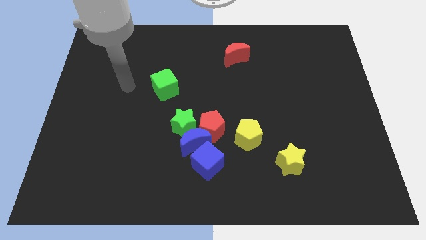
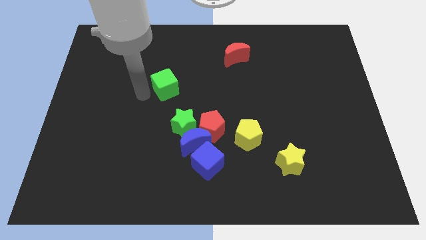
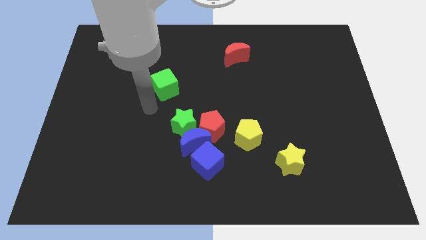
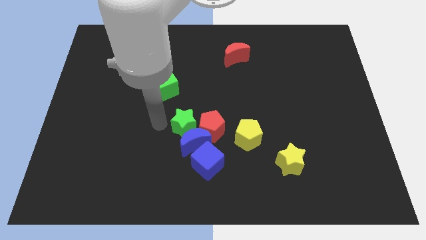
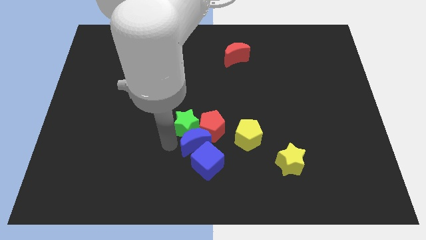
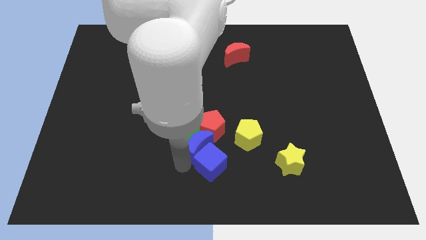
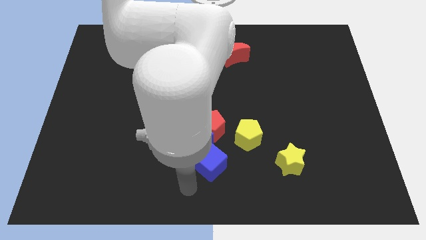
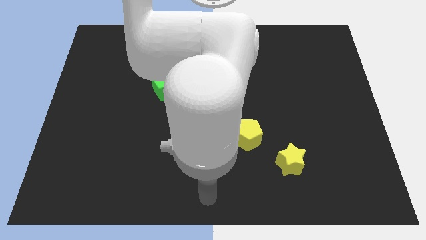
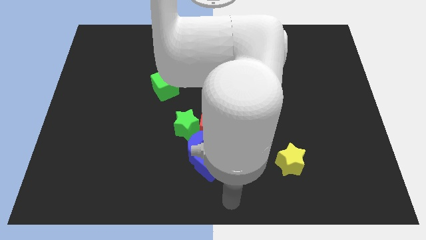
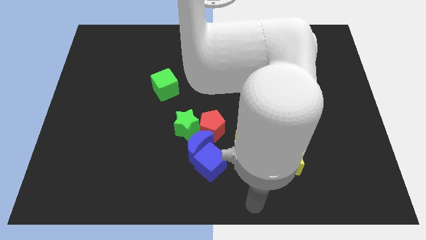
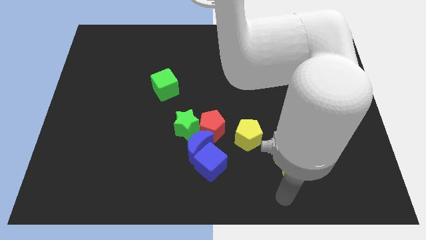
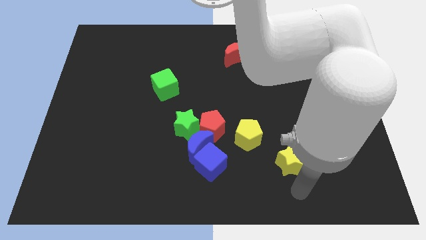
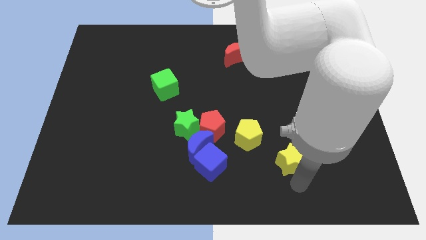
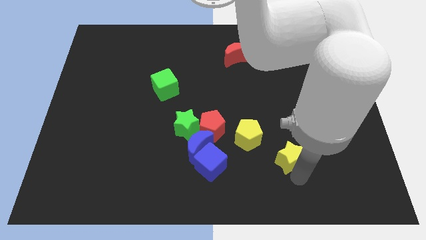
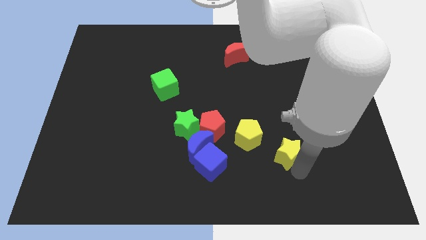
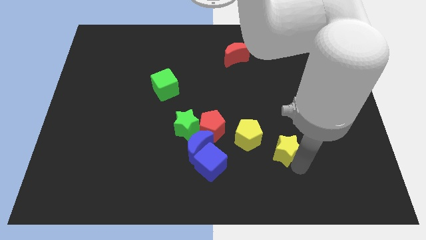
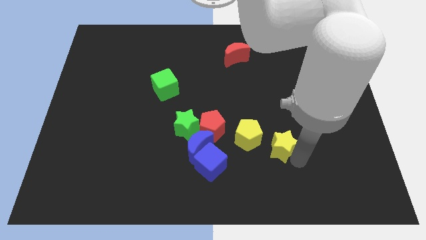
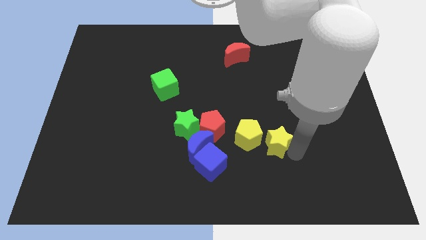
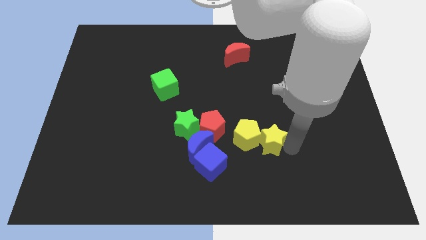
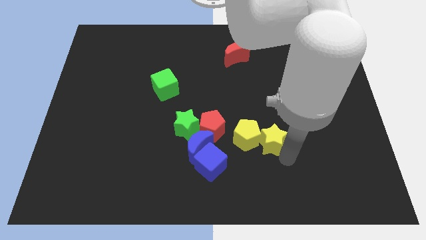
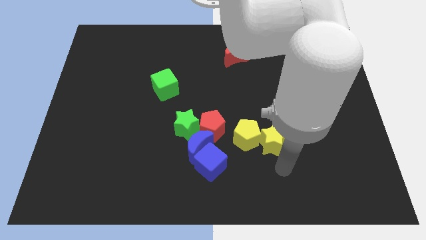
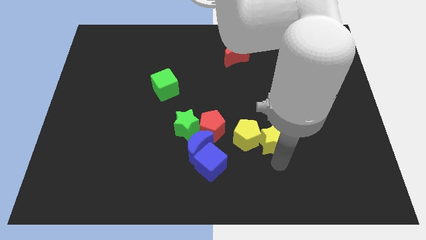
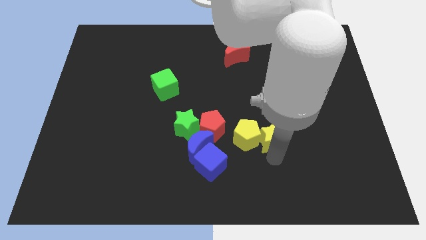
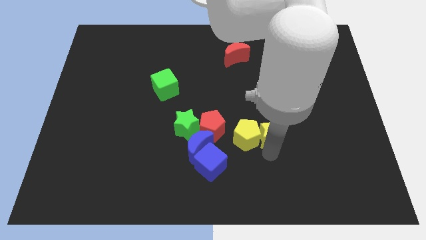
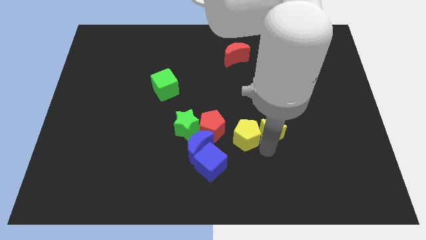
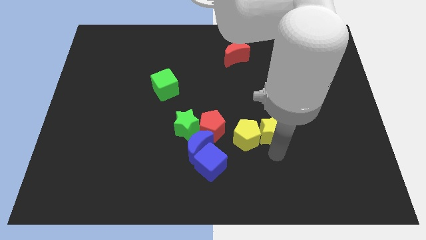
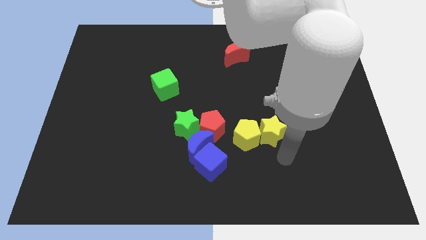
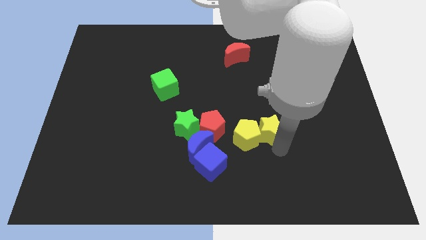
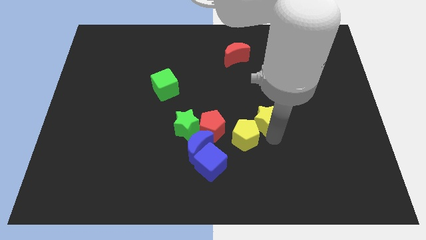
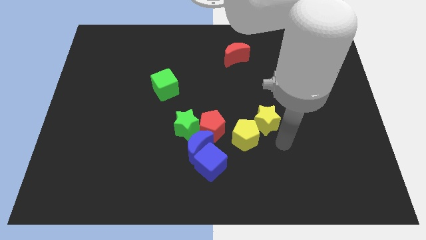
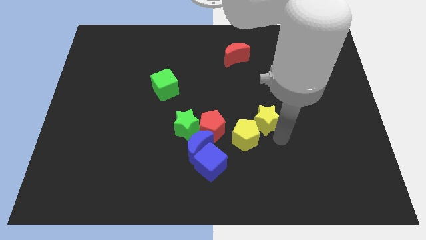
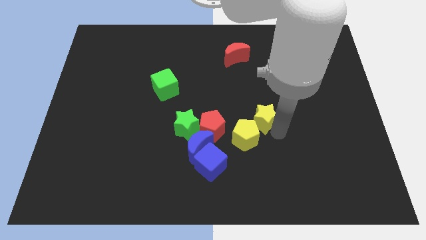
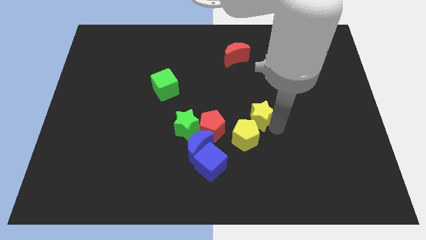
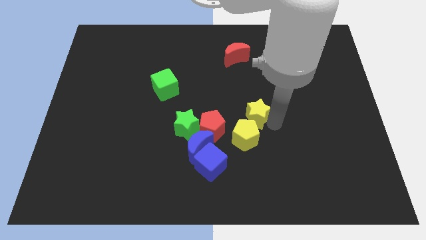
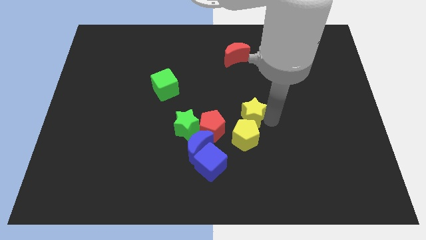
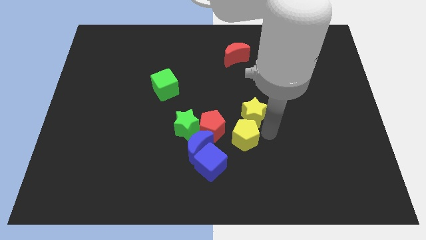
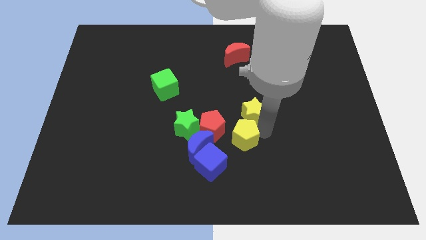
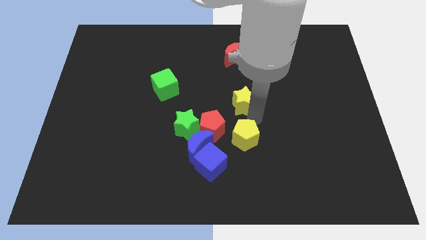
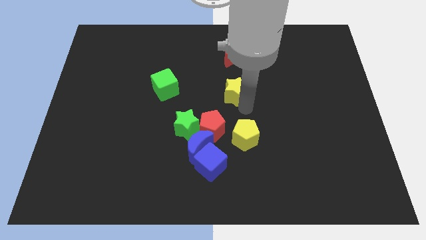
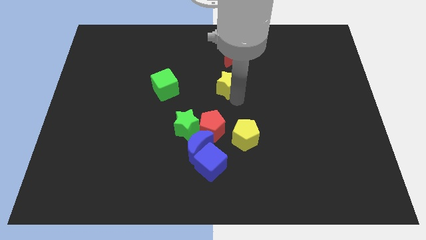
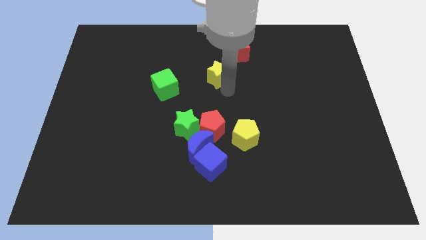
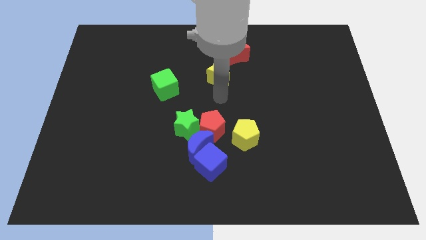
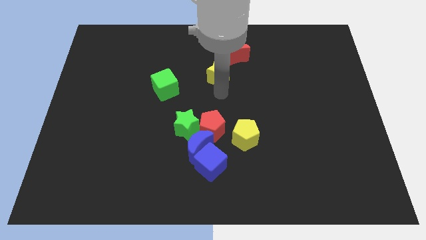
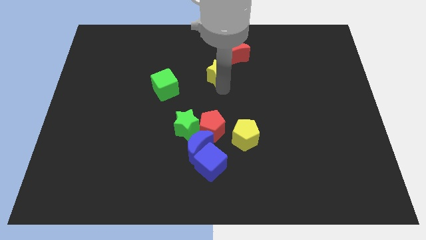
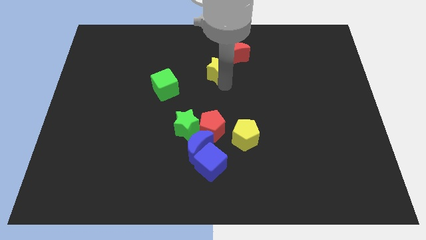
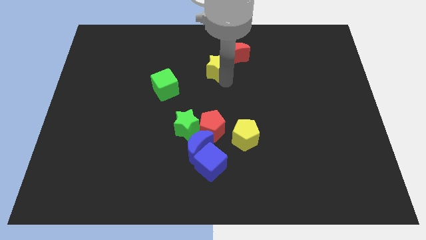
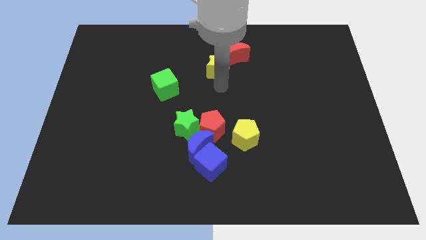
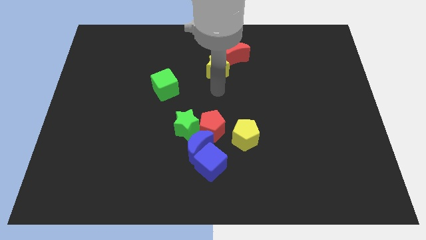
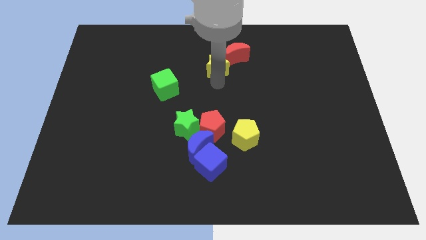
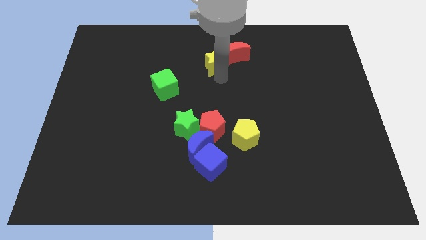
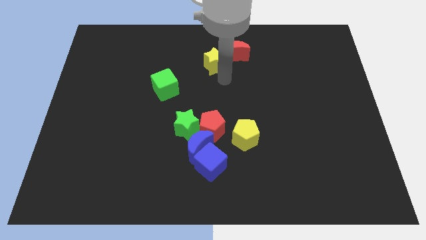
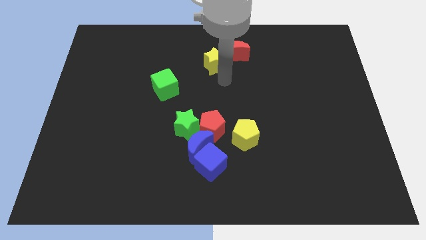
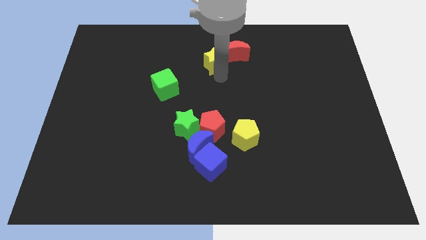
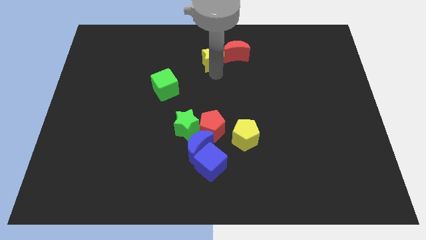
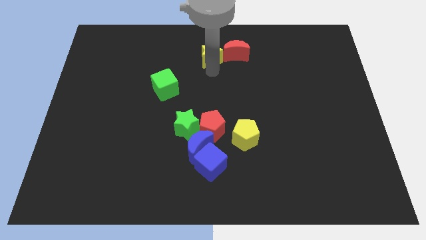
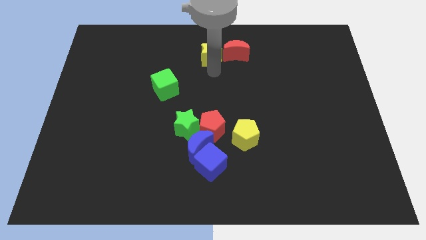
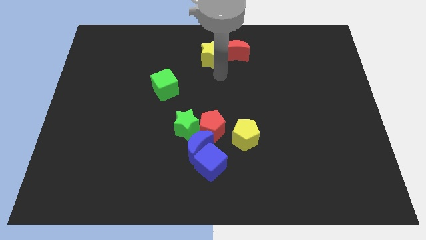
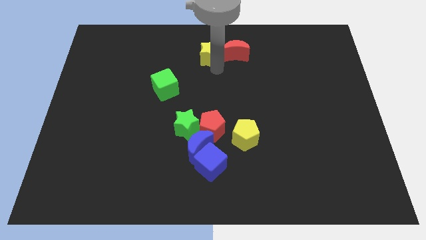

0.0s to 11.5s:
put the yellow star to the top side

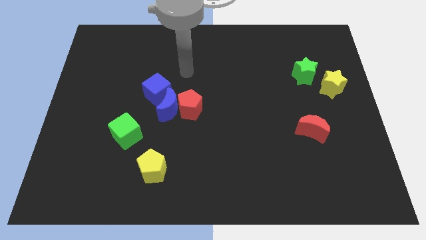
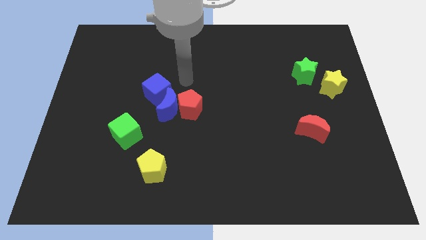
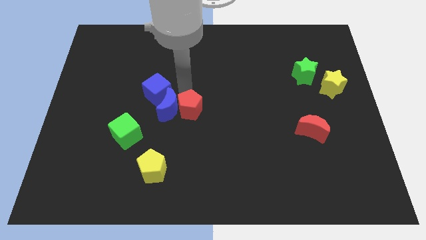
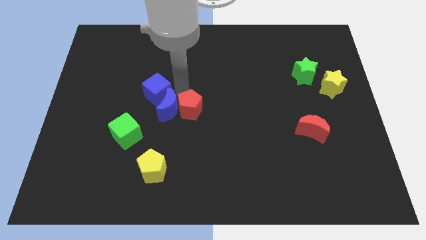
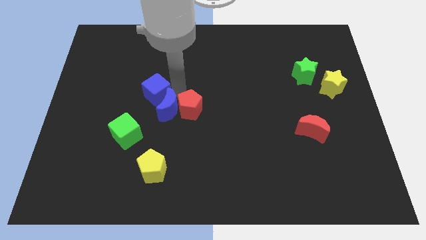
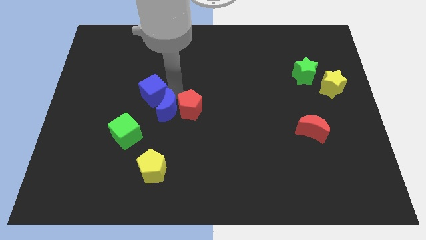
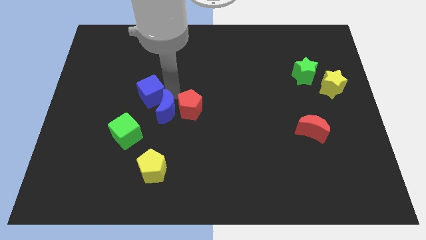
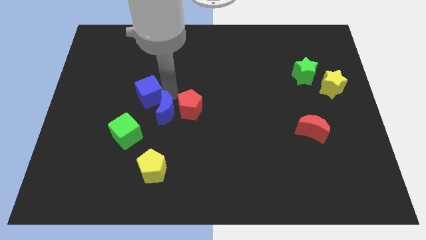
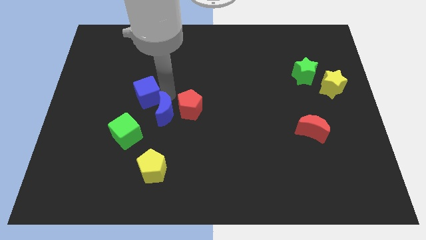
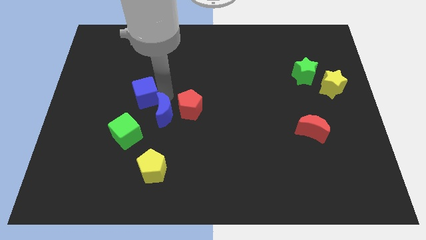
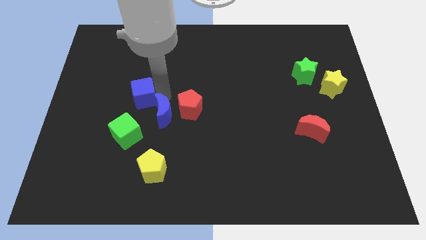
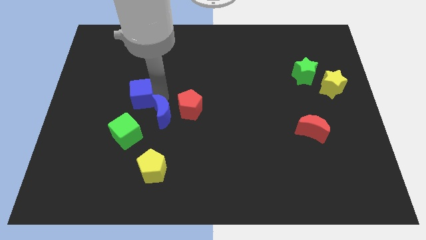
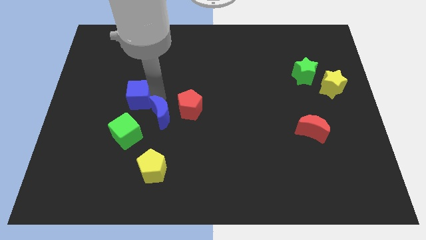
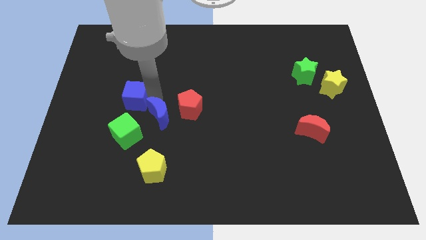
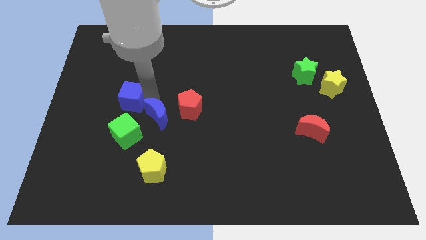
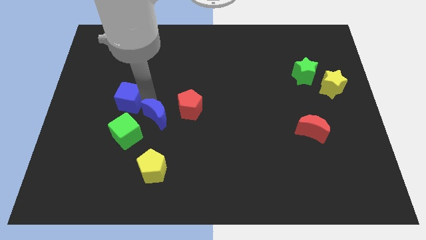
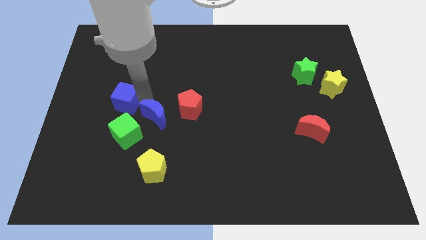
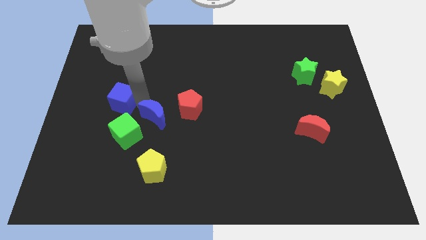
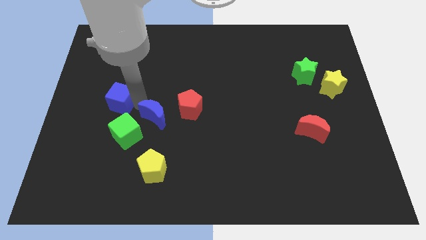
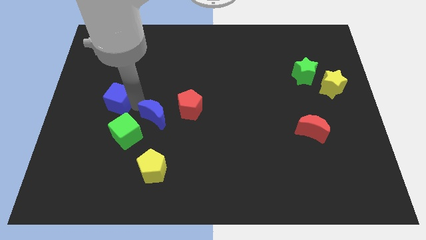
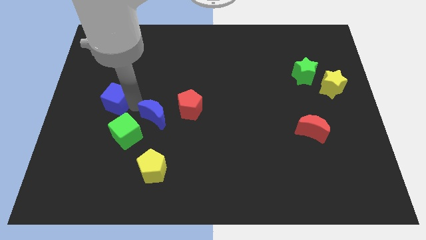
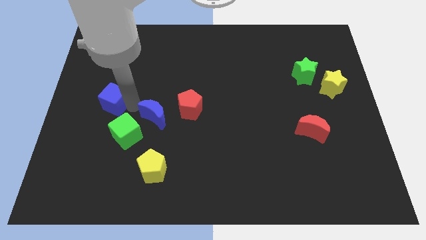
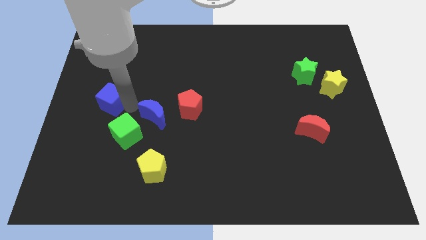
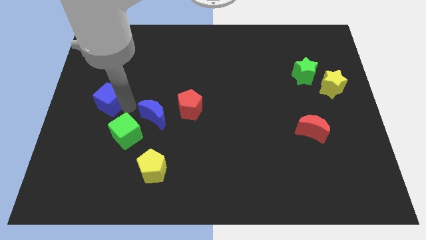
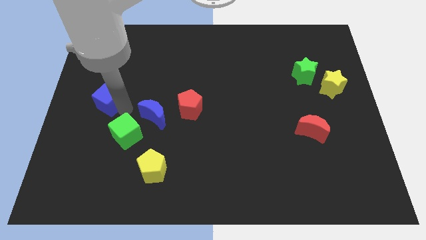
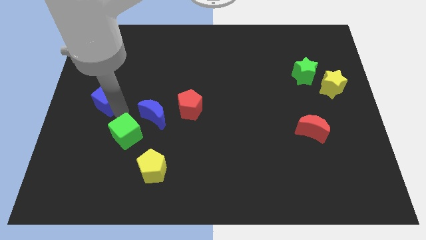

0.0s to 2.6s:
put the blue cube to the left side
